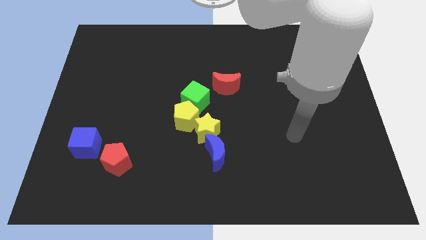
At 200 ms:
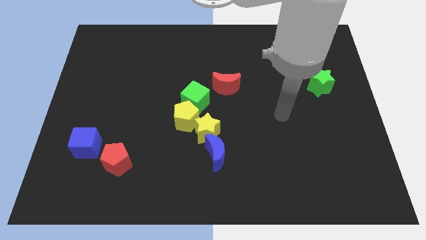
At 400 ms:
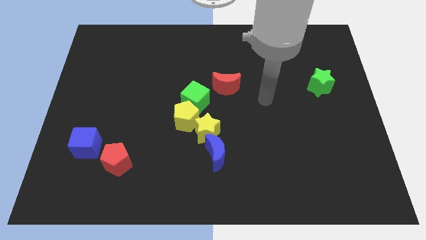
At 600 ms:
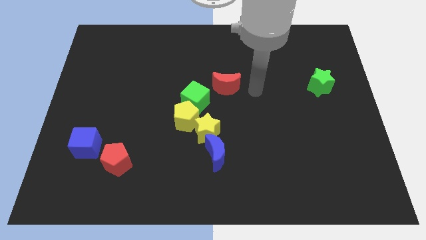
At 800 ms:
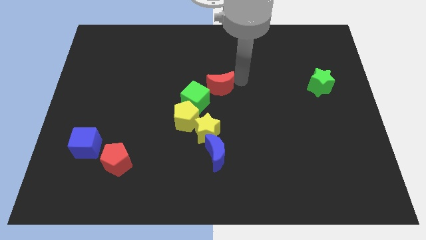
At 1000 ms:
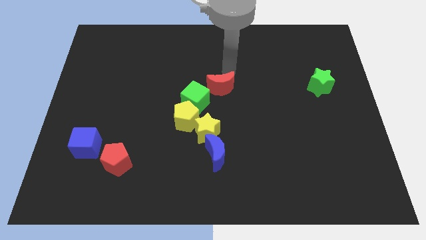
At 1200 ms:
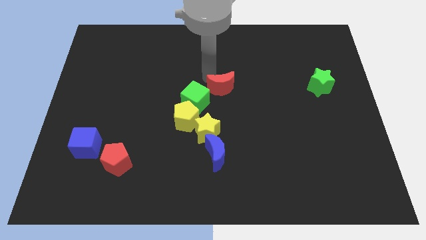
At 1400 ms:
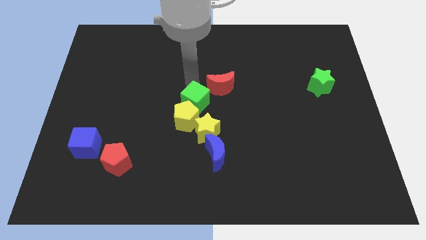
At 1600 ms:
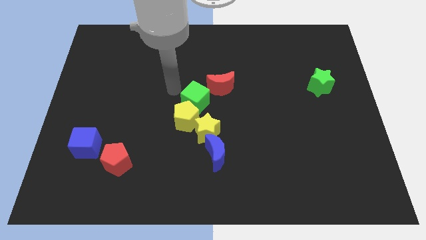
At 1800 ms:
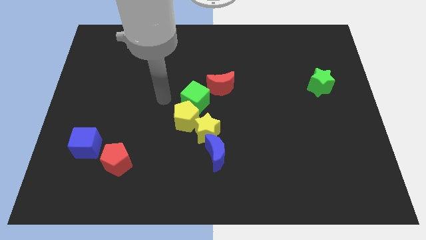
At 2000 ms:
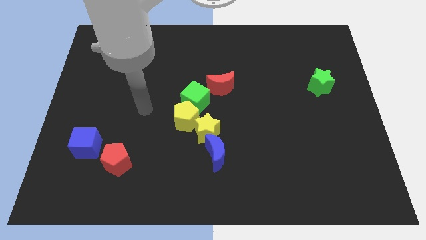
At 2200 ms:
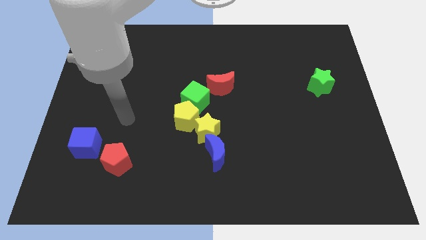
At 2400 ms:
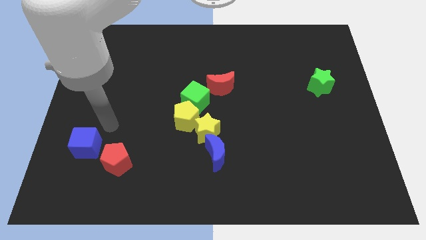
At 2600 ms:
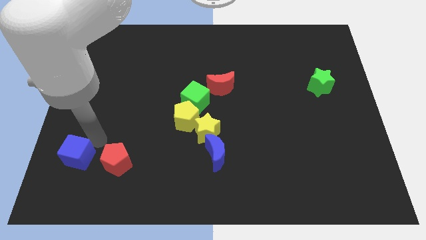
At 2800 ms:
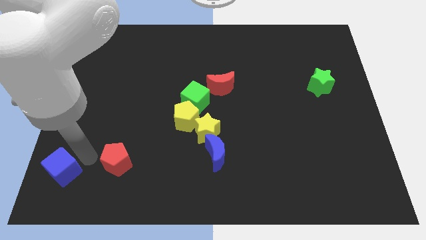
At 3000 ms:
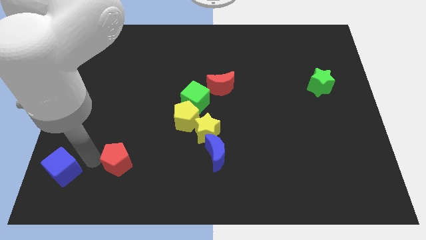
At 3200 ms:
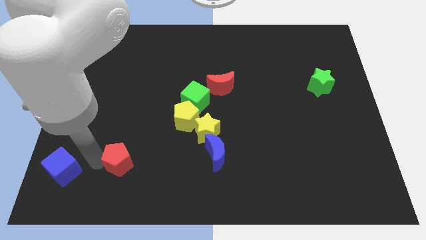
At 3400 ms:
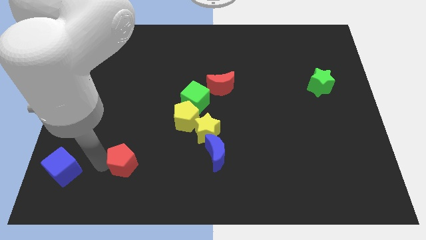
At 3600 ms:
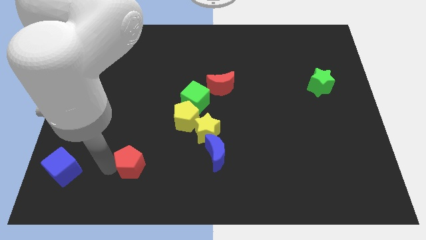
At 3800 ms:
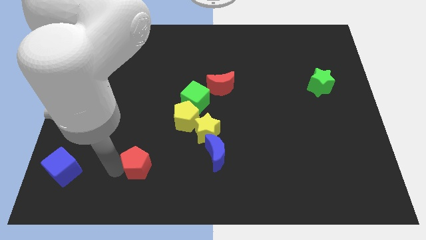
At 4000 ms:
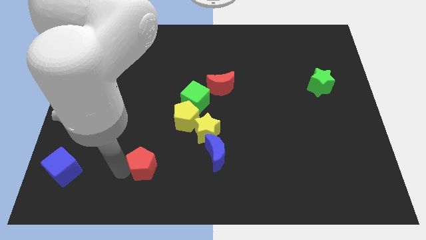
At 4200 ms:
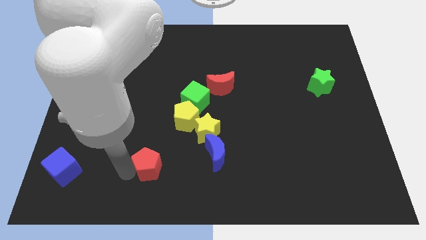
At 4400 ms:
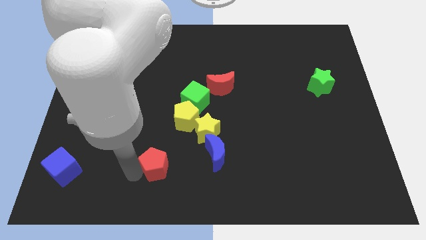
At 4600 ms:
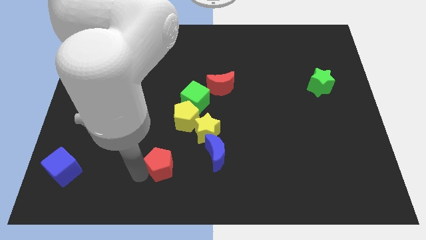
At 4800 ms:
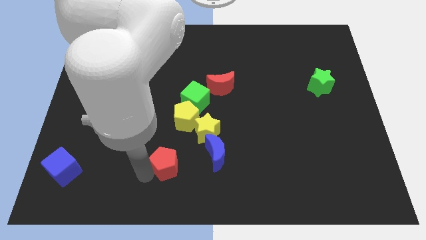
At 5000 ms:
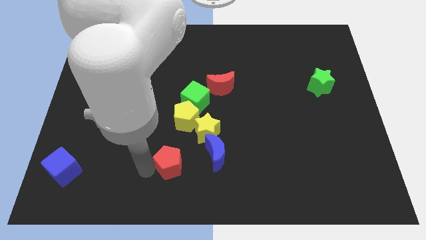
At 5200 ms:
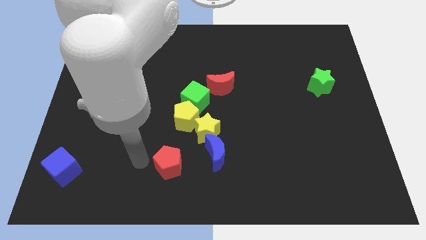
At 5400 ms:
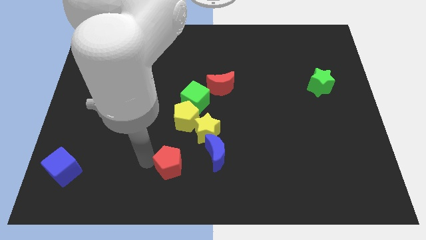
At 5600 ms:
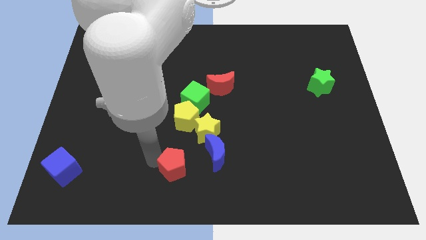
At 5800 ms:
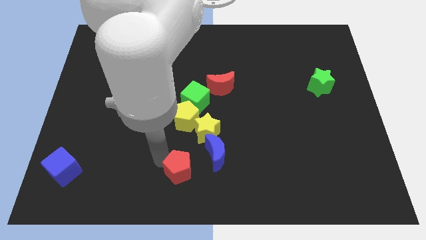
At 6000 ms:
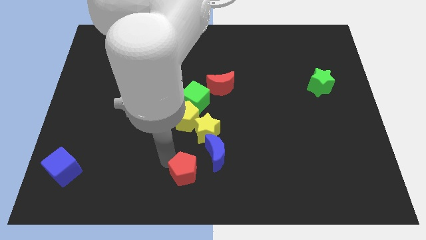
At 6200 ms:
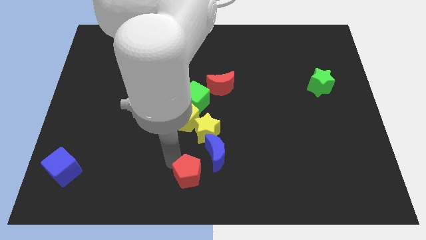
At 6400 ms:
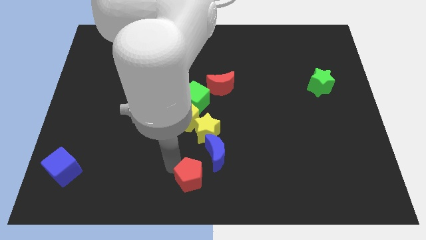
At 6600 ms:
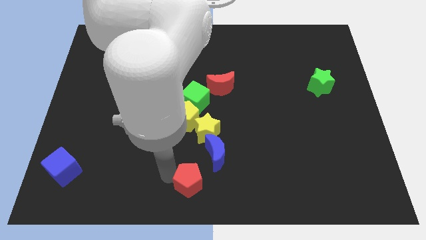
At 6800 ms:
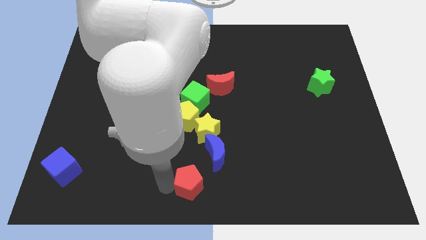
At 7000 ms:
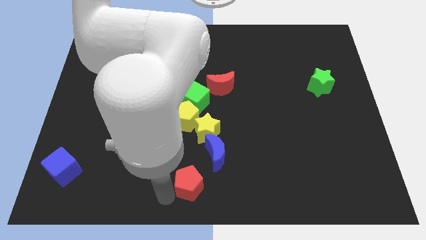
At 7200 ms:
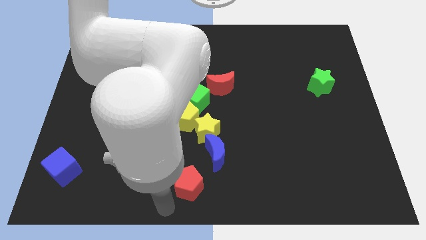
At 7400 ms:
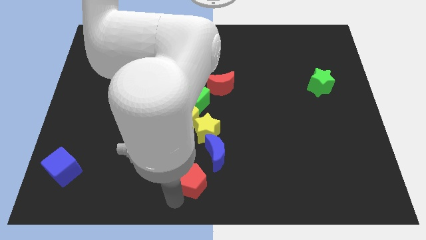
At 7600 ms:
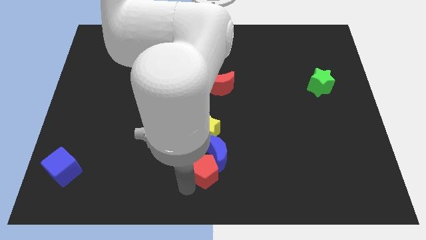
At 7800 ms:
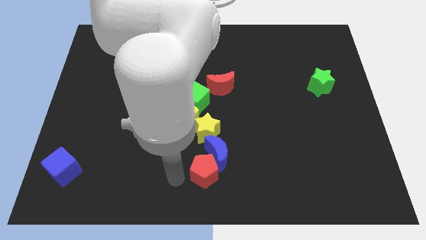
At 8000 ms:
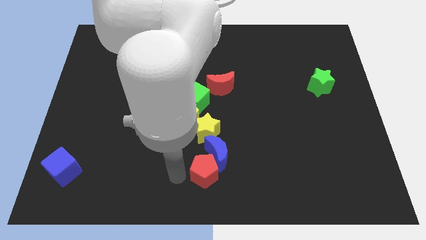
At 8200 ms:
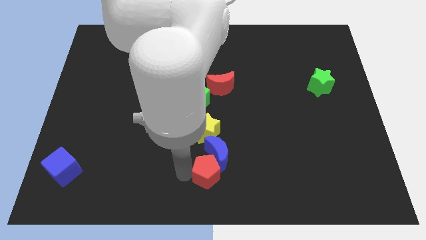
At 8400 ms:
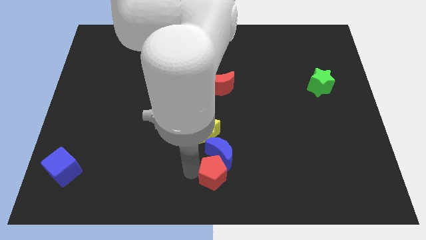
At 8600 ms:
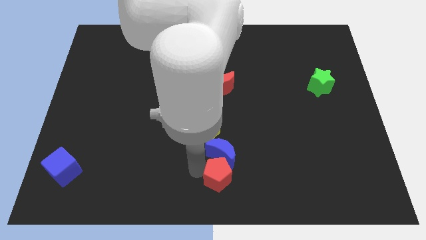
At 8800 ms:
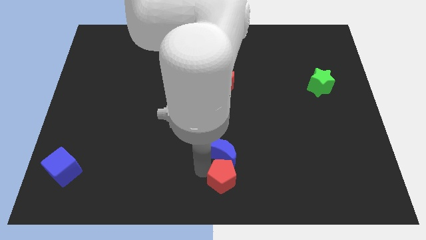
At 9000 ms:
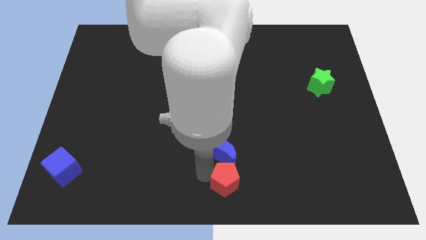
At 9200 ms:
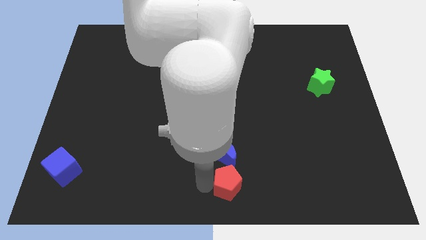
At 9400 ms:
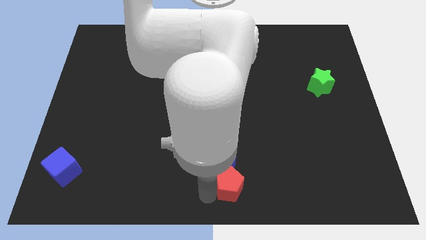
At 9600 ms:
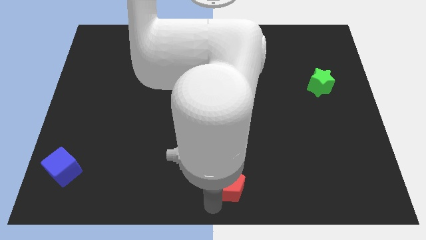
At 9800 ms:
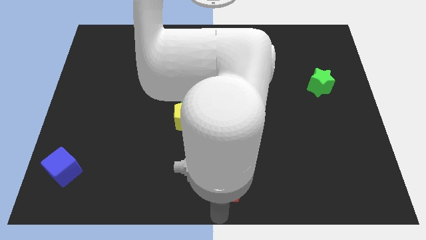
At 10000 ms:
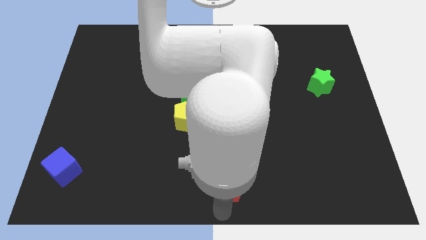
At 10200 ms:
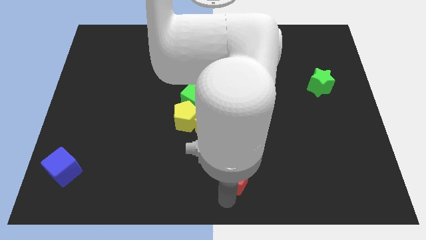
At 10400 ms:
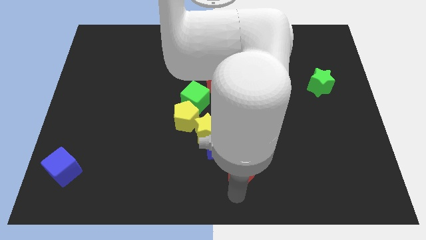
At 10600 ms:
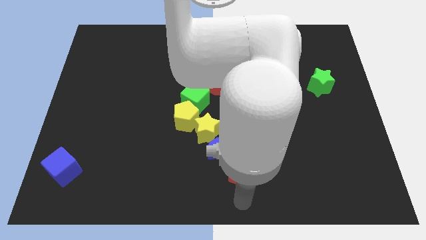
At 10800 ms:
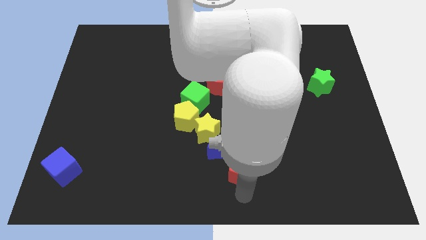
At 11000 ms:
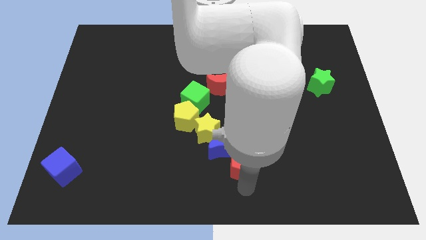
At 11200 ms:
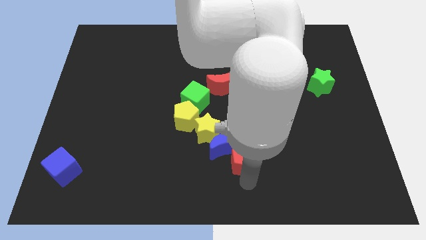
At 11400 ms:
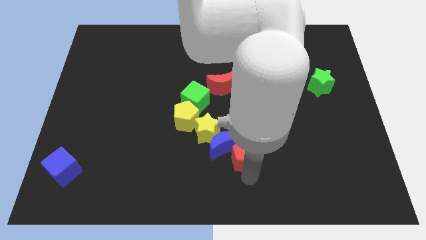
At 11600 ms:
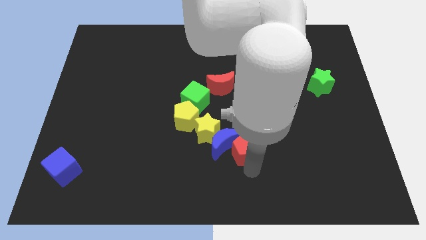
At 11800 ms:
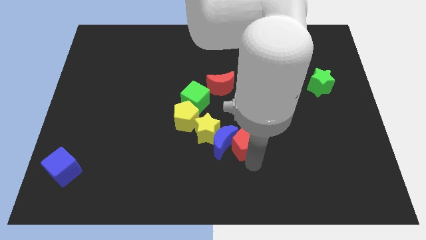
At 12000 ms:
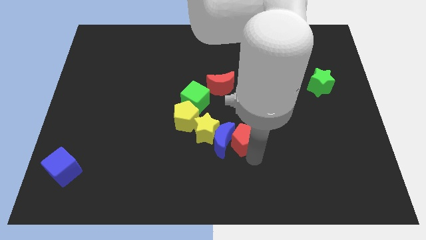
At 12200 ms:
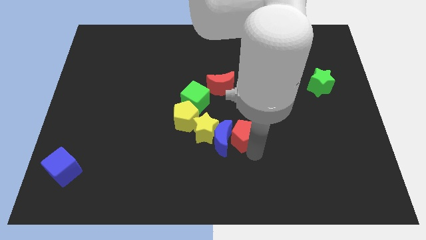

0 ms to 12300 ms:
put the red pentagon to the middle

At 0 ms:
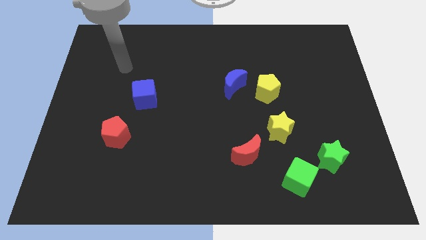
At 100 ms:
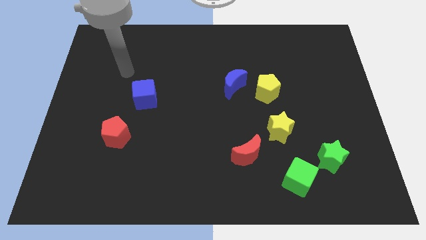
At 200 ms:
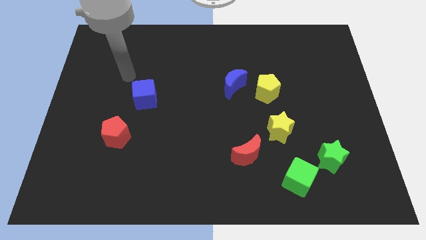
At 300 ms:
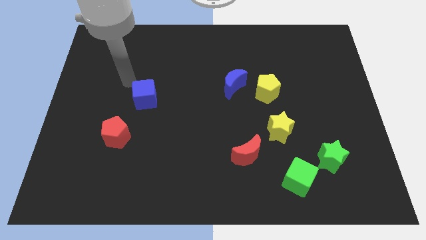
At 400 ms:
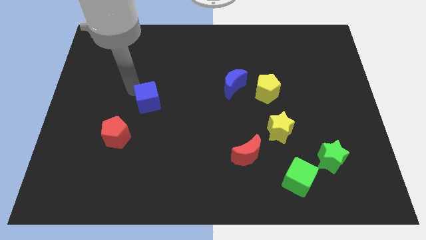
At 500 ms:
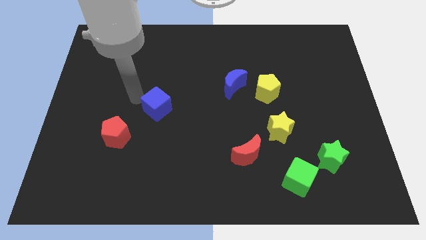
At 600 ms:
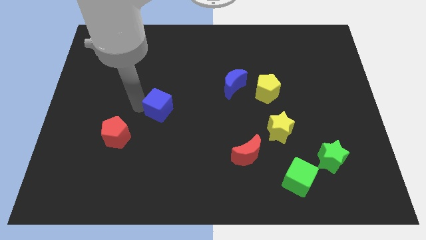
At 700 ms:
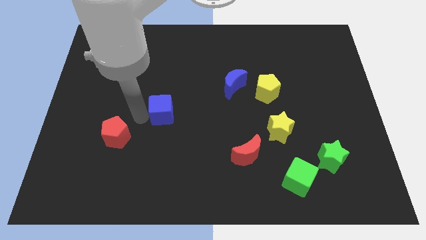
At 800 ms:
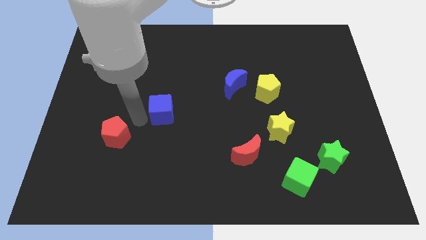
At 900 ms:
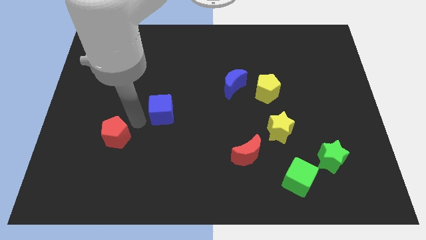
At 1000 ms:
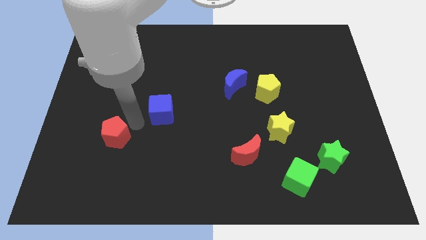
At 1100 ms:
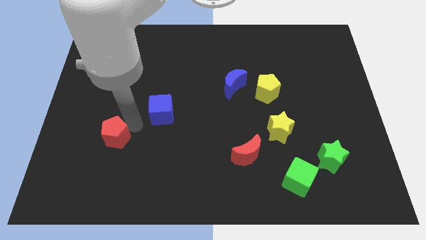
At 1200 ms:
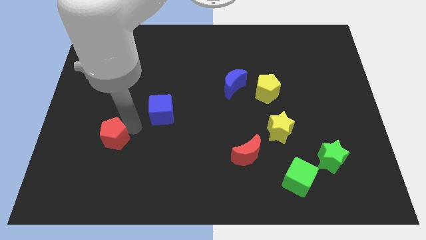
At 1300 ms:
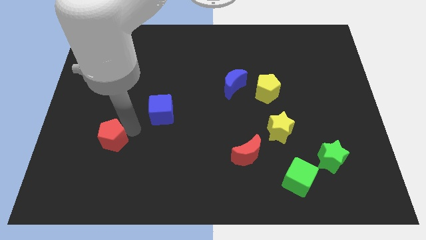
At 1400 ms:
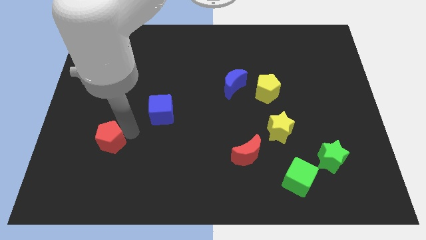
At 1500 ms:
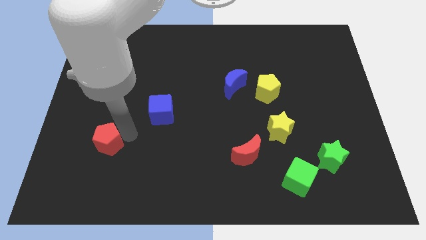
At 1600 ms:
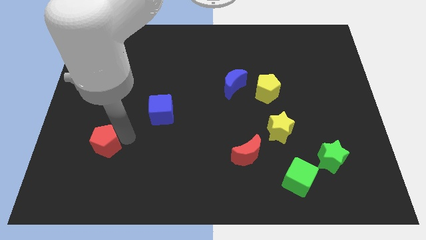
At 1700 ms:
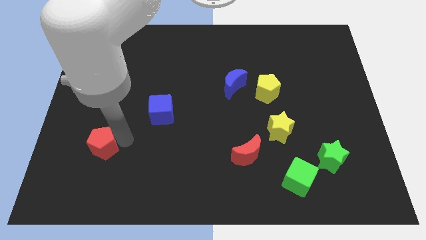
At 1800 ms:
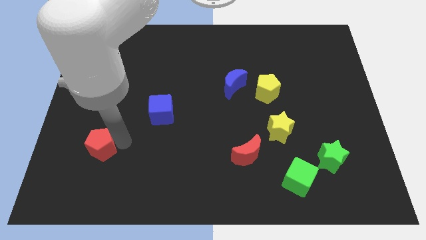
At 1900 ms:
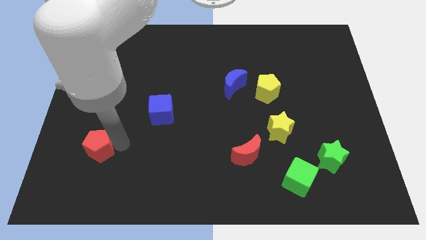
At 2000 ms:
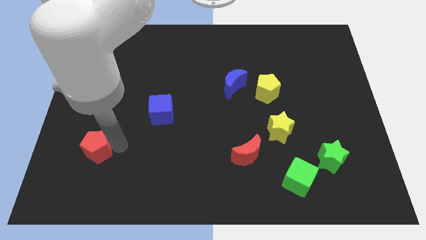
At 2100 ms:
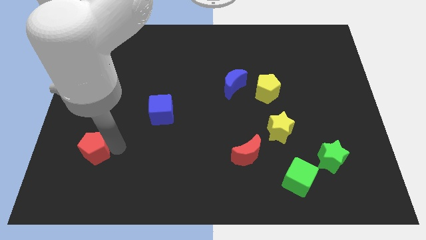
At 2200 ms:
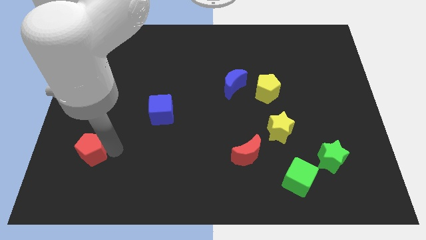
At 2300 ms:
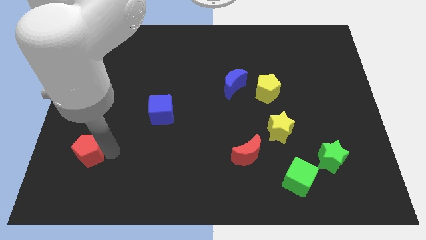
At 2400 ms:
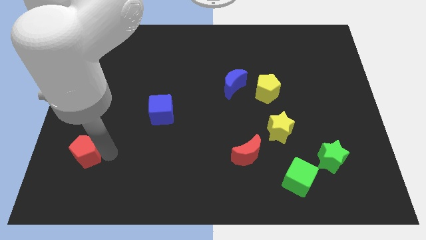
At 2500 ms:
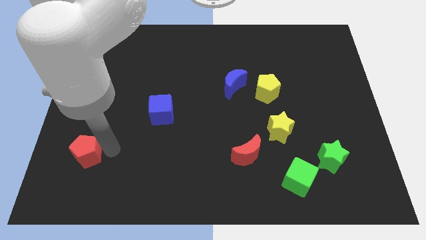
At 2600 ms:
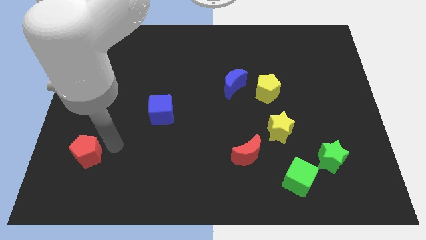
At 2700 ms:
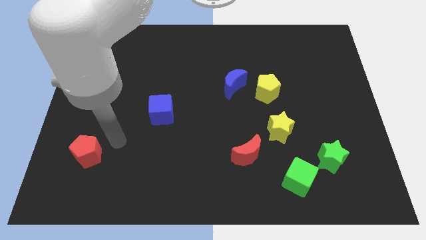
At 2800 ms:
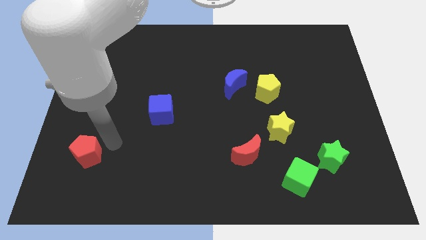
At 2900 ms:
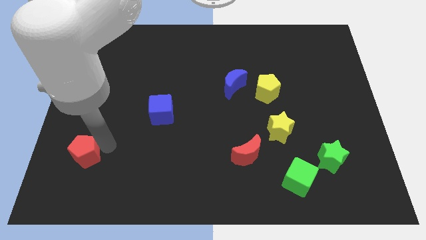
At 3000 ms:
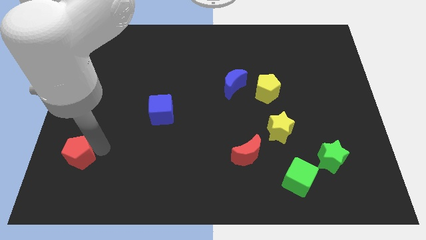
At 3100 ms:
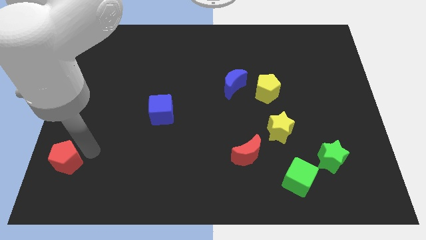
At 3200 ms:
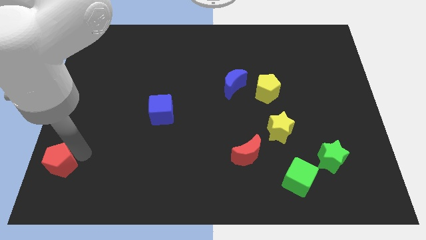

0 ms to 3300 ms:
put the red pentagon to the bottom left of the board
